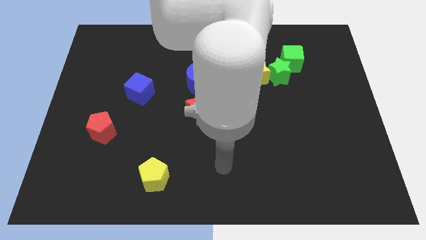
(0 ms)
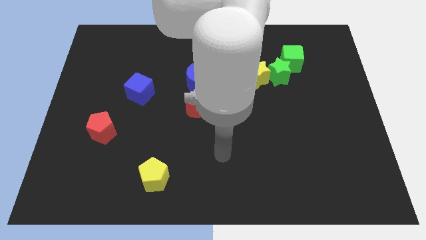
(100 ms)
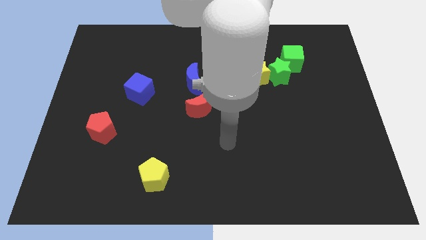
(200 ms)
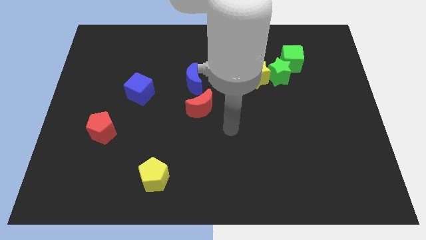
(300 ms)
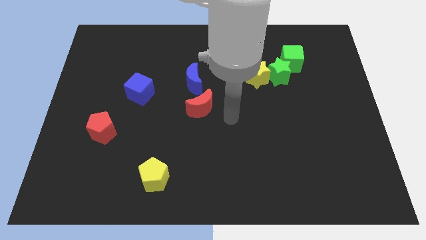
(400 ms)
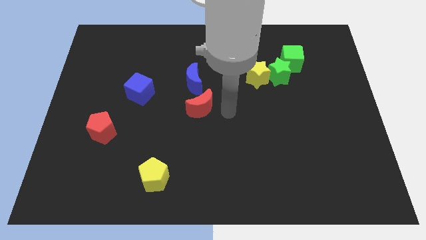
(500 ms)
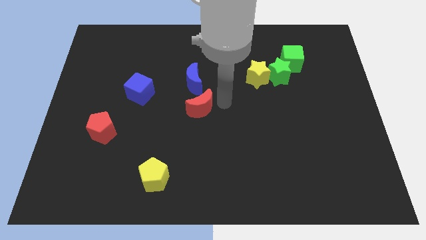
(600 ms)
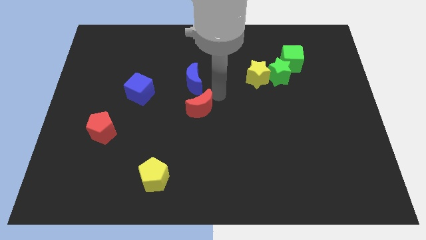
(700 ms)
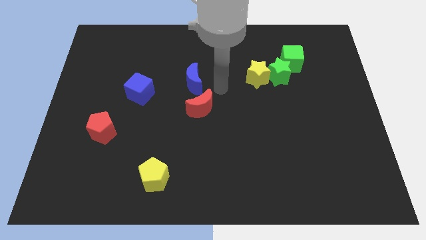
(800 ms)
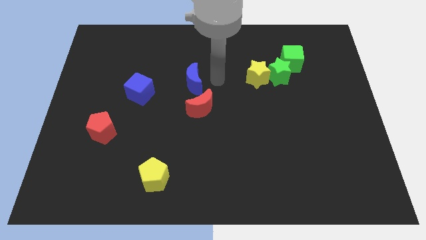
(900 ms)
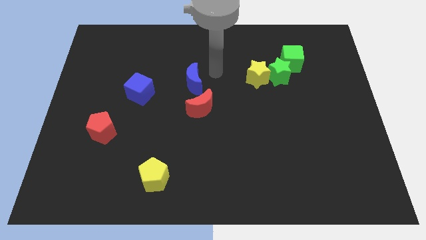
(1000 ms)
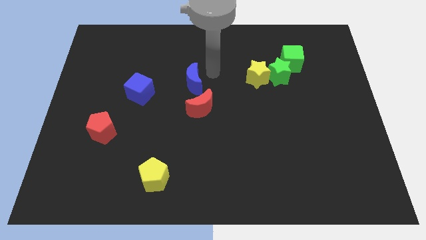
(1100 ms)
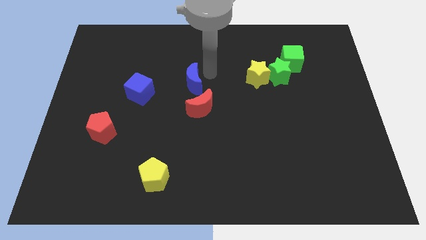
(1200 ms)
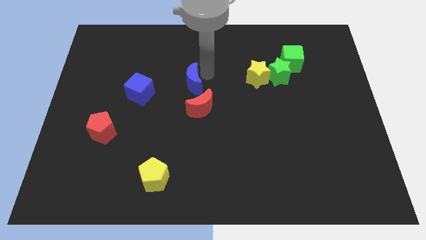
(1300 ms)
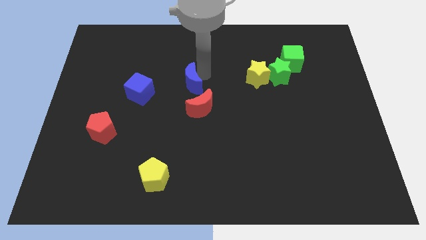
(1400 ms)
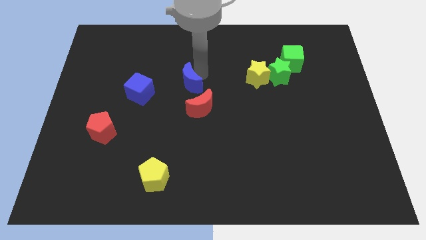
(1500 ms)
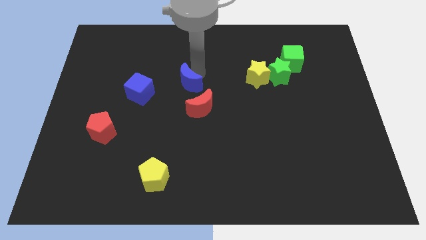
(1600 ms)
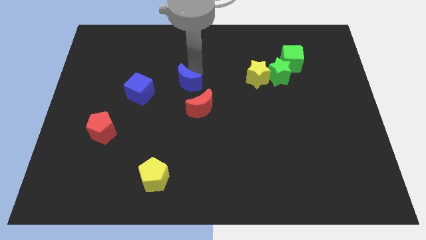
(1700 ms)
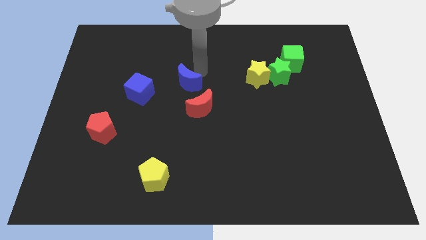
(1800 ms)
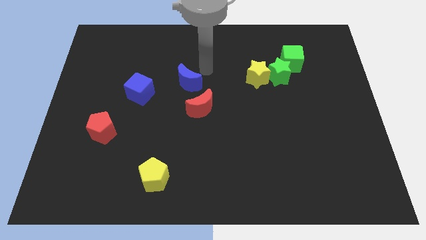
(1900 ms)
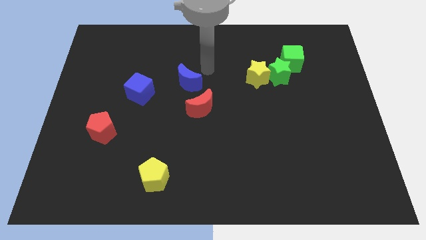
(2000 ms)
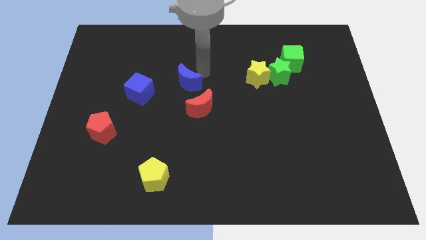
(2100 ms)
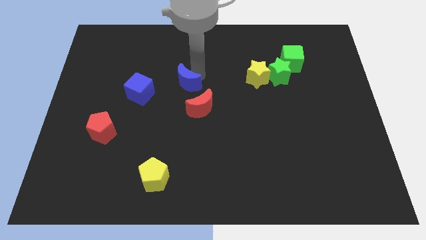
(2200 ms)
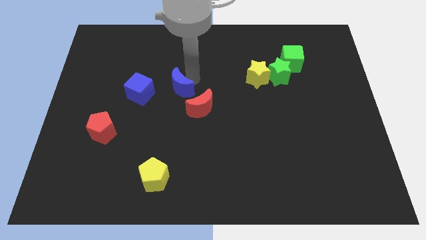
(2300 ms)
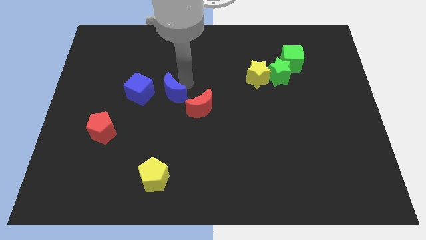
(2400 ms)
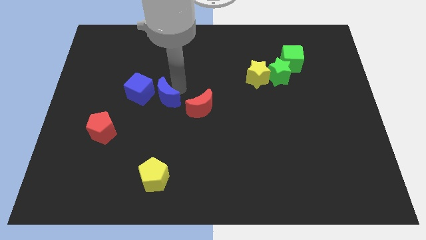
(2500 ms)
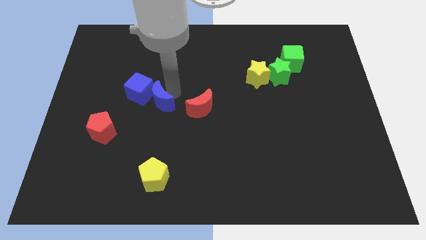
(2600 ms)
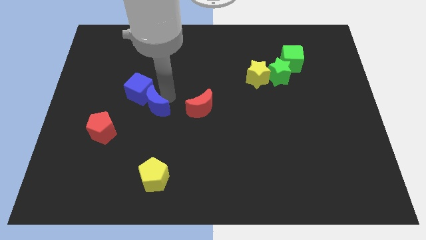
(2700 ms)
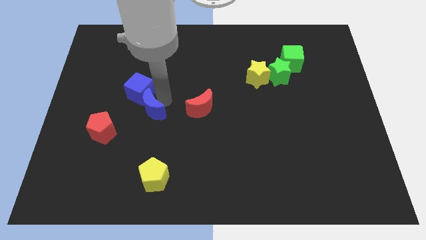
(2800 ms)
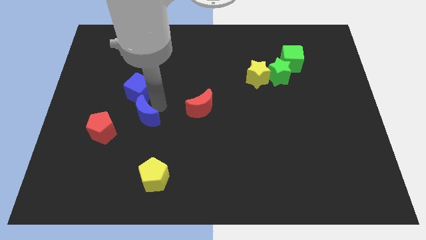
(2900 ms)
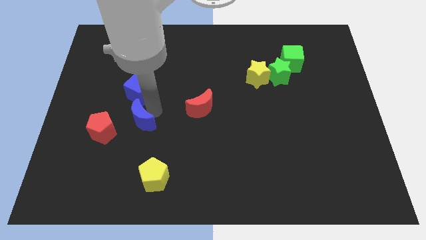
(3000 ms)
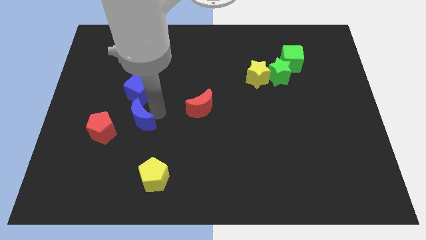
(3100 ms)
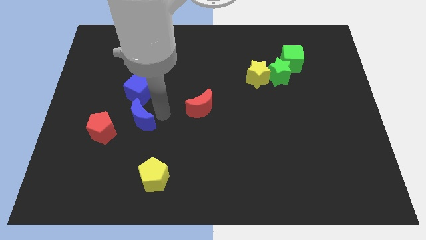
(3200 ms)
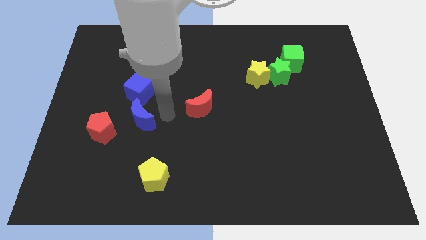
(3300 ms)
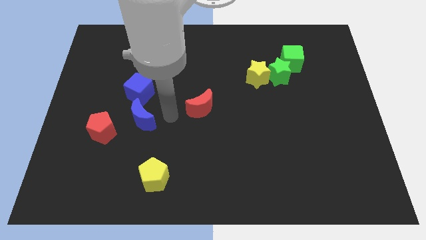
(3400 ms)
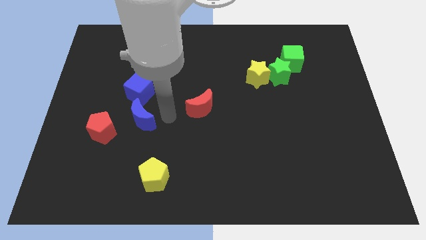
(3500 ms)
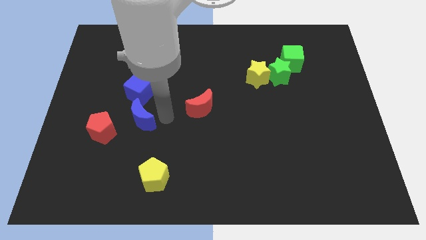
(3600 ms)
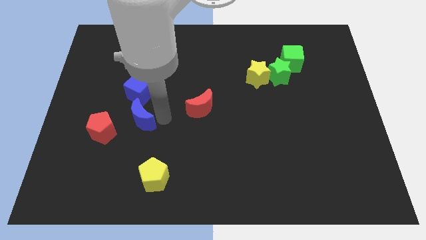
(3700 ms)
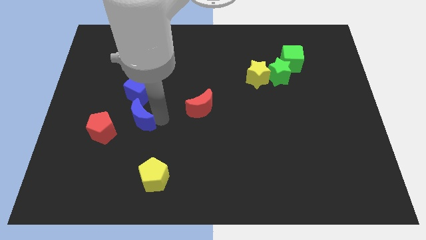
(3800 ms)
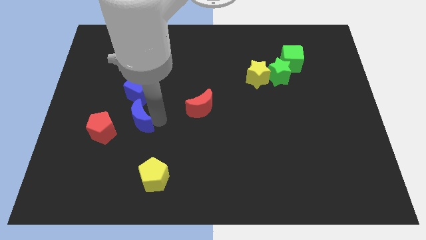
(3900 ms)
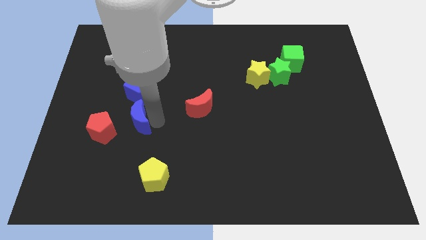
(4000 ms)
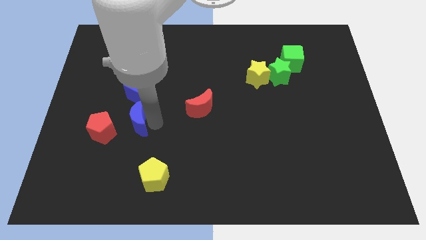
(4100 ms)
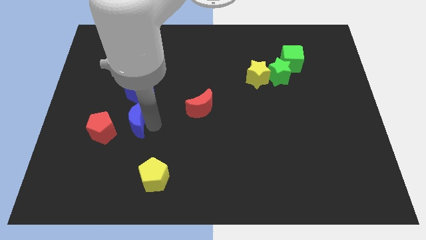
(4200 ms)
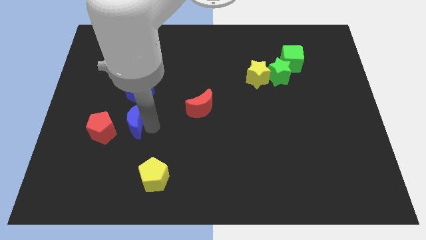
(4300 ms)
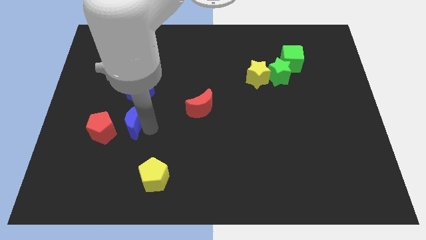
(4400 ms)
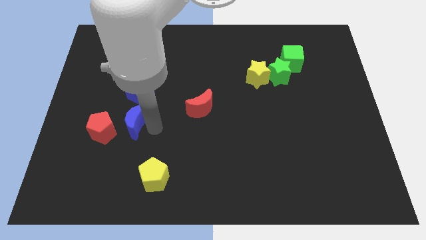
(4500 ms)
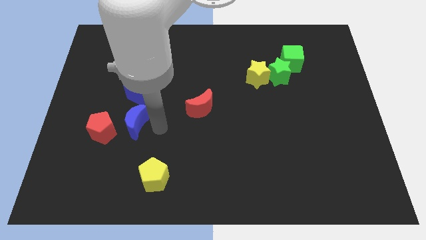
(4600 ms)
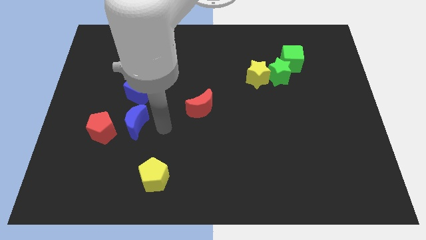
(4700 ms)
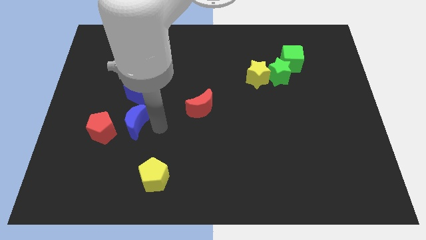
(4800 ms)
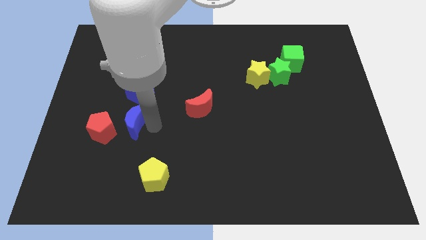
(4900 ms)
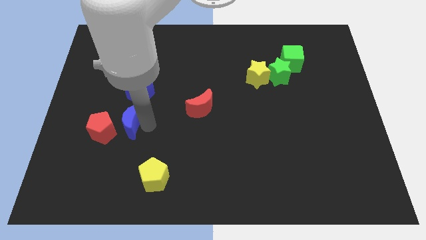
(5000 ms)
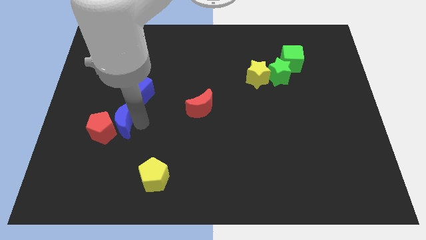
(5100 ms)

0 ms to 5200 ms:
slide the blue moon towards the red pentagon

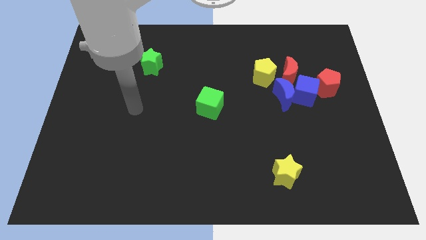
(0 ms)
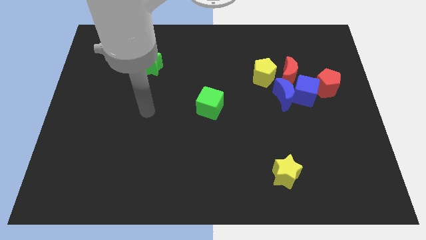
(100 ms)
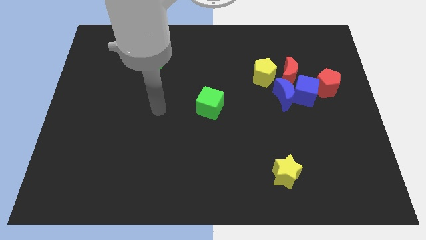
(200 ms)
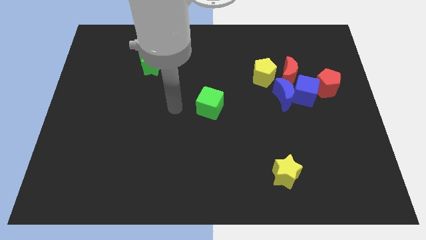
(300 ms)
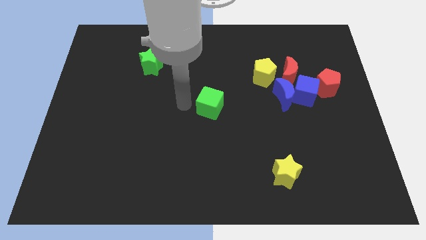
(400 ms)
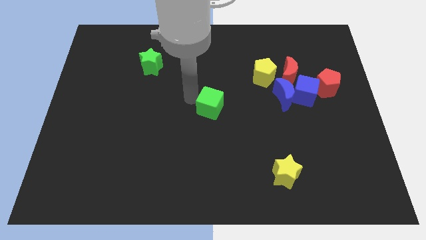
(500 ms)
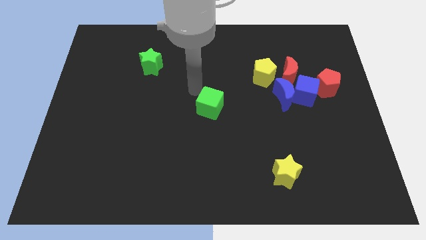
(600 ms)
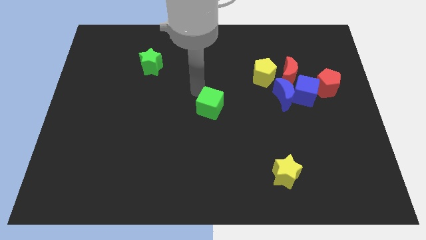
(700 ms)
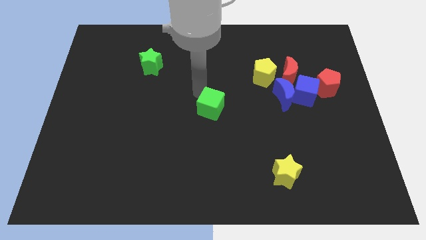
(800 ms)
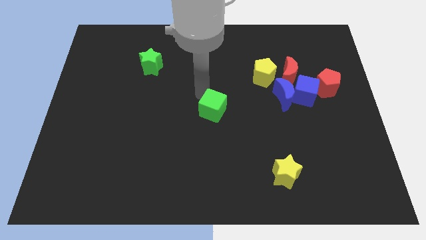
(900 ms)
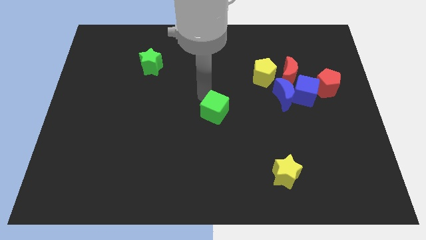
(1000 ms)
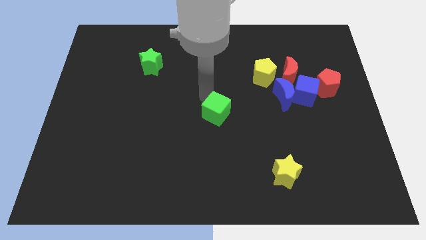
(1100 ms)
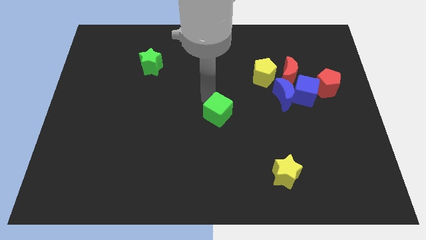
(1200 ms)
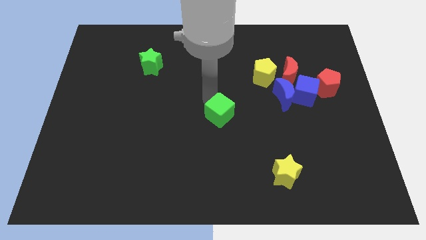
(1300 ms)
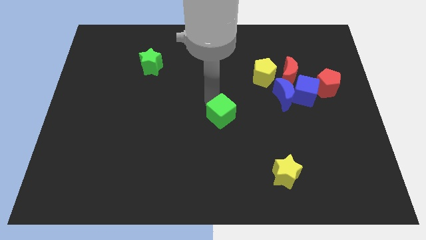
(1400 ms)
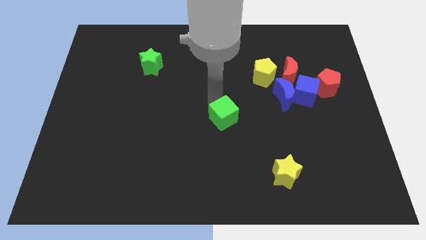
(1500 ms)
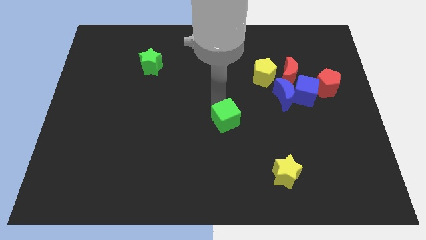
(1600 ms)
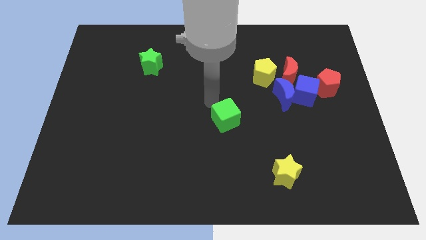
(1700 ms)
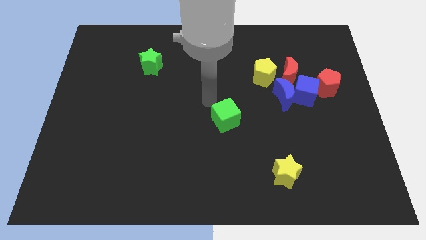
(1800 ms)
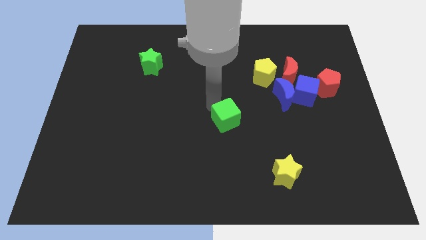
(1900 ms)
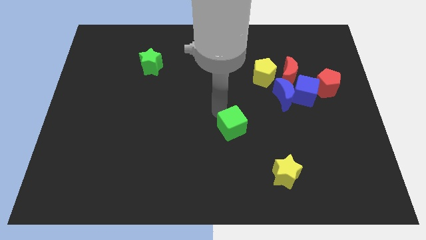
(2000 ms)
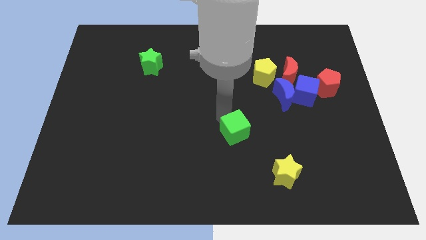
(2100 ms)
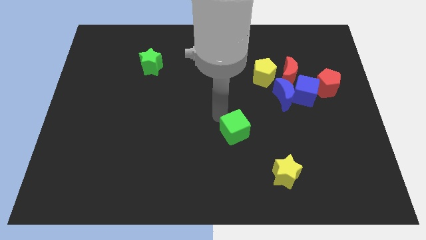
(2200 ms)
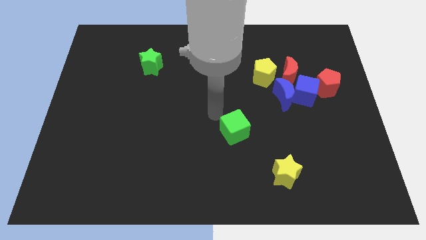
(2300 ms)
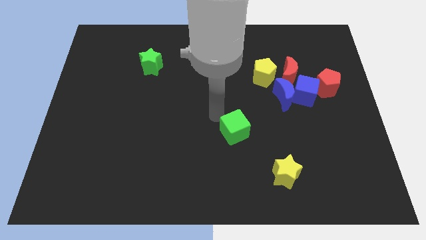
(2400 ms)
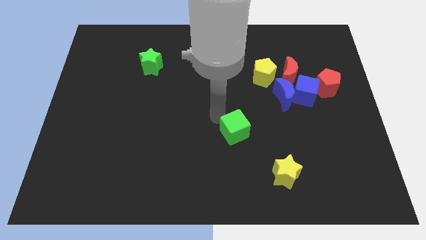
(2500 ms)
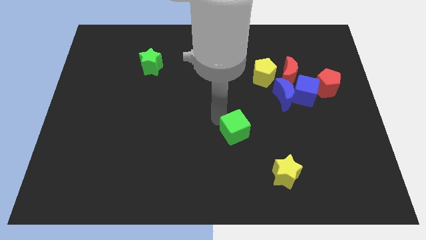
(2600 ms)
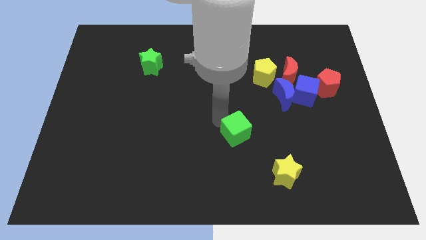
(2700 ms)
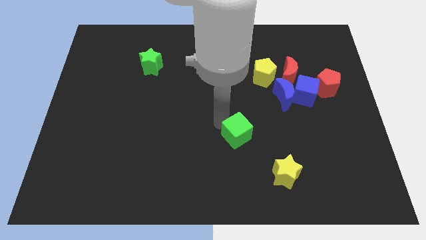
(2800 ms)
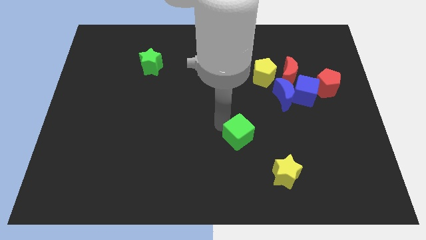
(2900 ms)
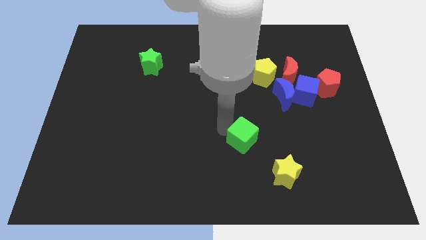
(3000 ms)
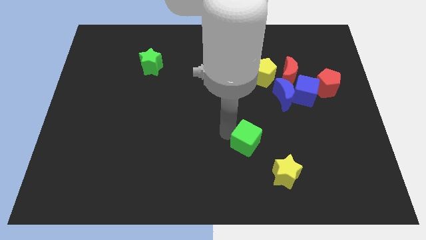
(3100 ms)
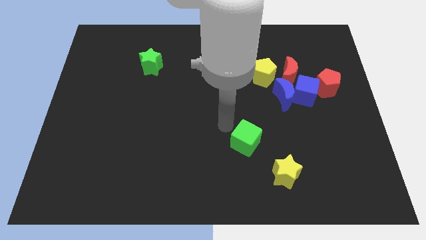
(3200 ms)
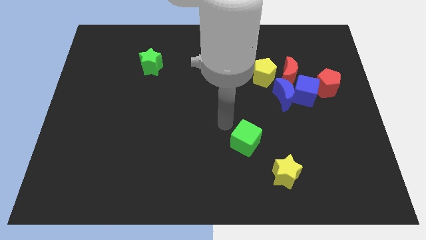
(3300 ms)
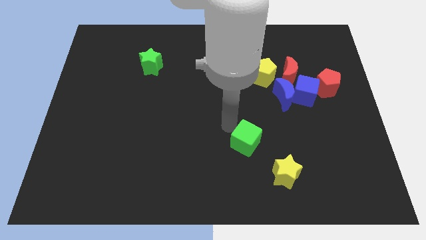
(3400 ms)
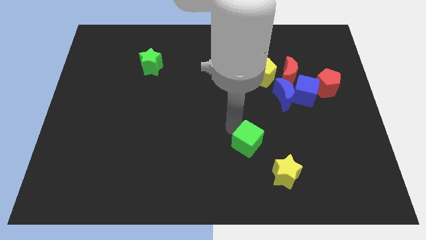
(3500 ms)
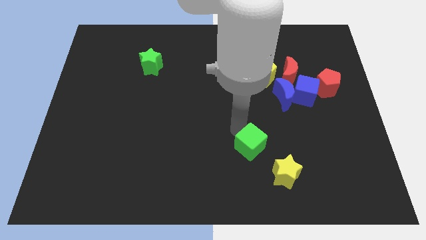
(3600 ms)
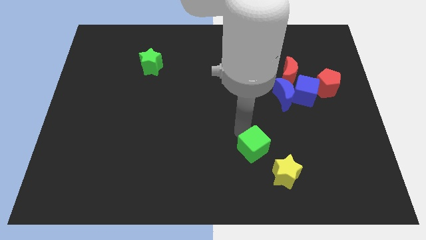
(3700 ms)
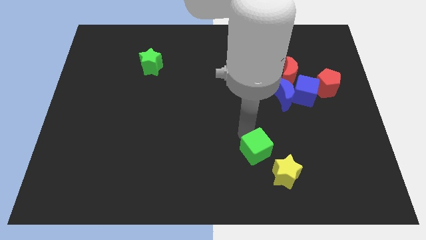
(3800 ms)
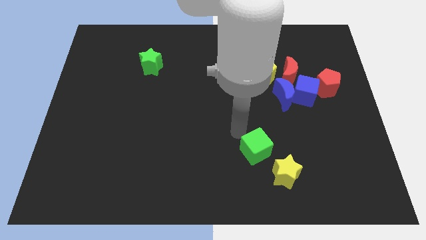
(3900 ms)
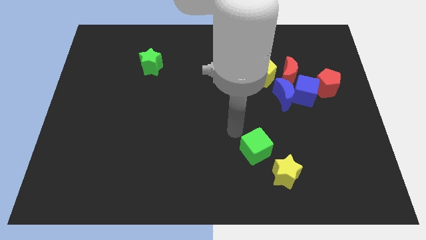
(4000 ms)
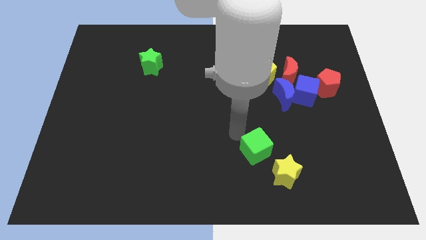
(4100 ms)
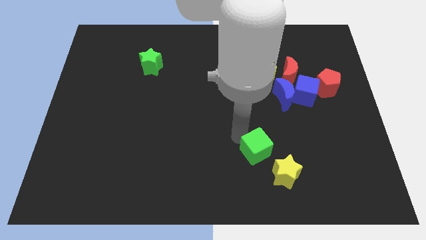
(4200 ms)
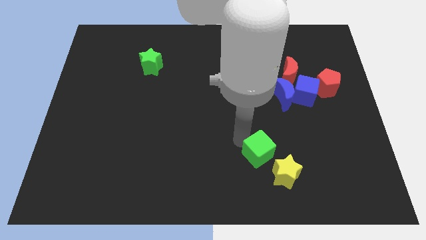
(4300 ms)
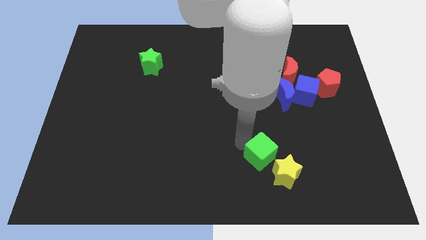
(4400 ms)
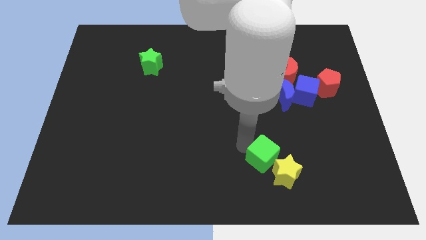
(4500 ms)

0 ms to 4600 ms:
move the green cube next to the yellow star
